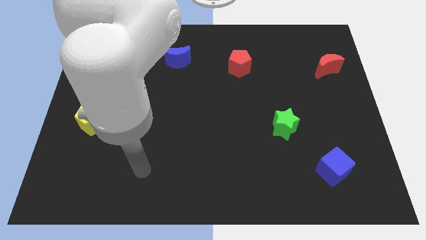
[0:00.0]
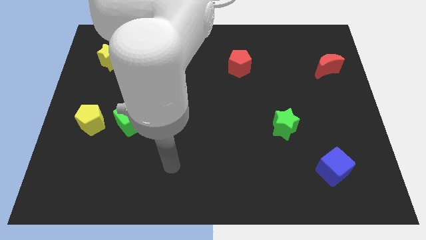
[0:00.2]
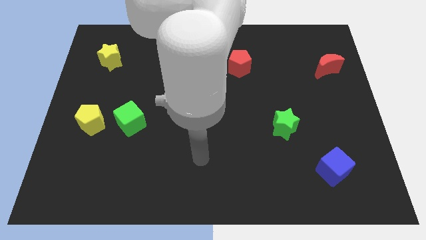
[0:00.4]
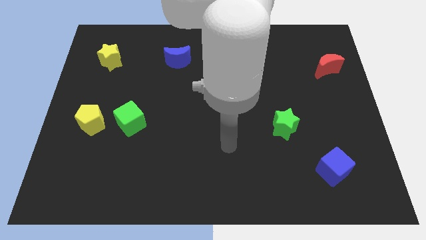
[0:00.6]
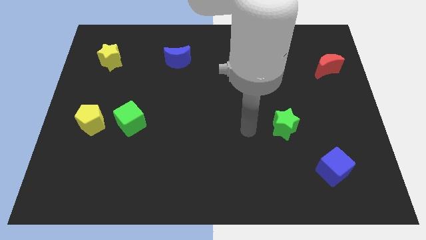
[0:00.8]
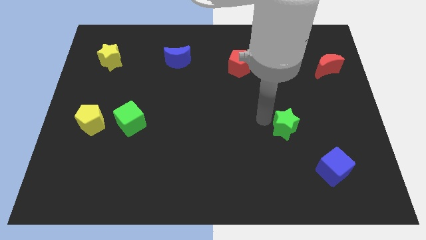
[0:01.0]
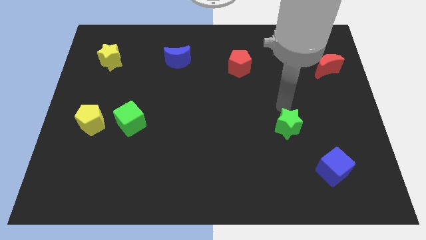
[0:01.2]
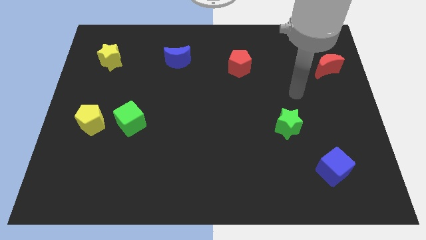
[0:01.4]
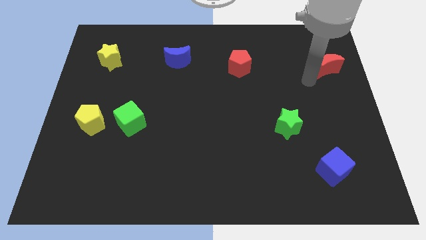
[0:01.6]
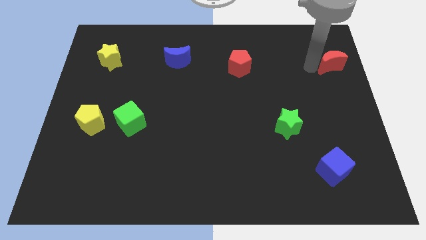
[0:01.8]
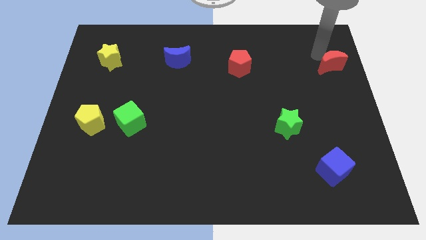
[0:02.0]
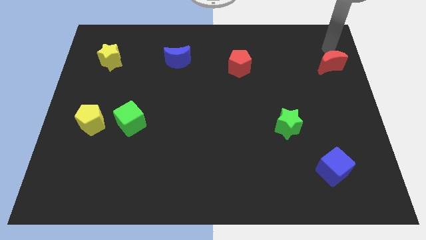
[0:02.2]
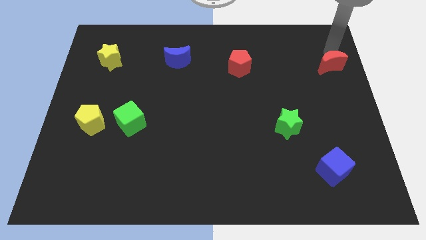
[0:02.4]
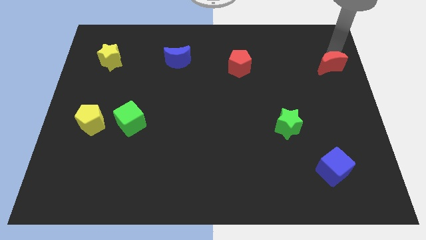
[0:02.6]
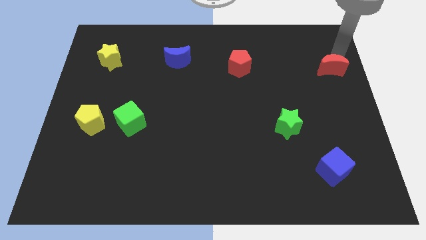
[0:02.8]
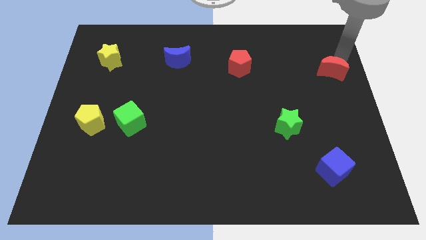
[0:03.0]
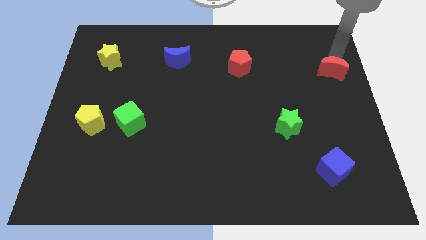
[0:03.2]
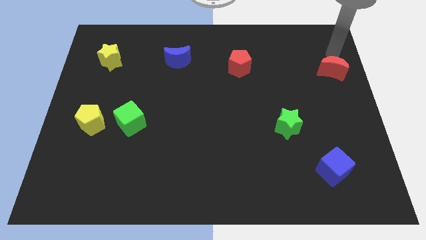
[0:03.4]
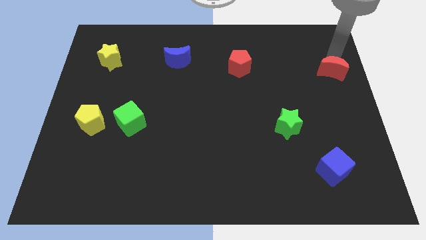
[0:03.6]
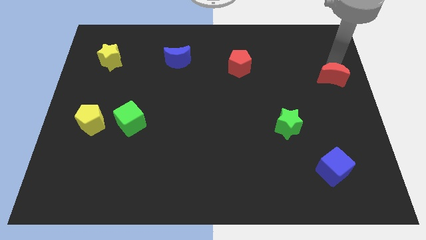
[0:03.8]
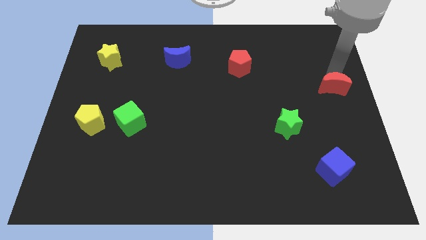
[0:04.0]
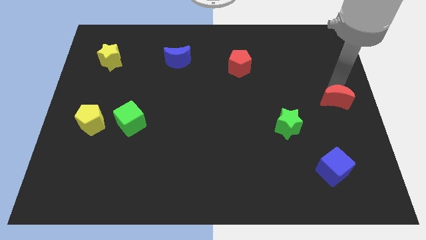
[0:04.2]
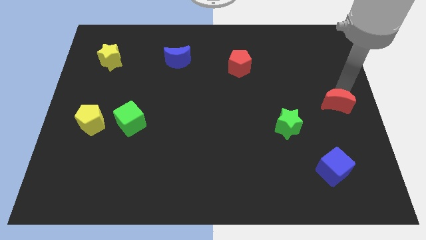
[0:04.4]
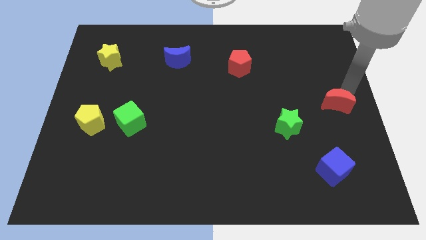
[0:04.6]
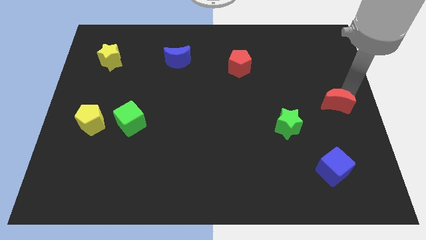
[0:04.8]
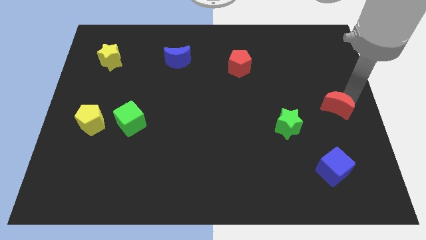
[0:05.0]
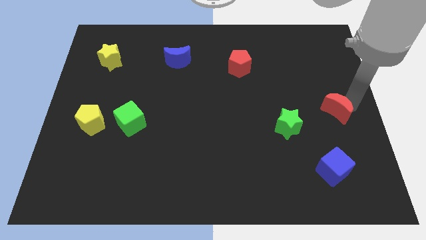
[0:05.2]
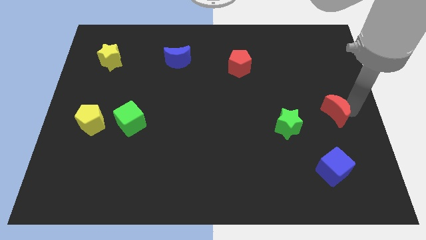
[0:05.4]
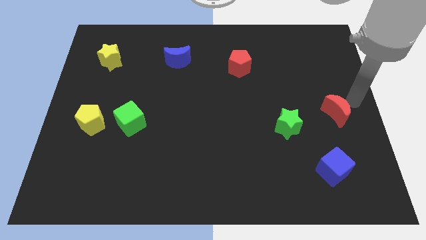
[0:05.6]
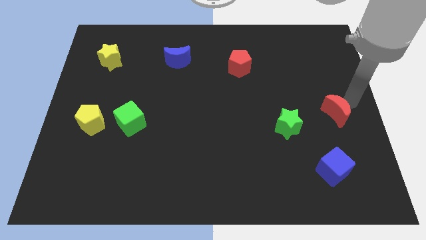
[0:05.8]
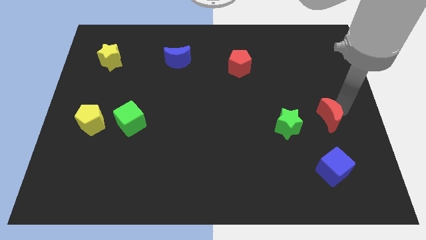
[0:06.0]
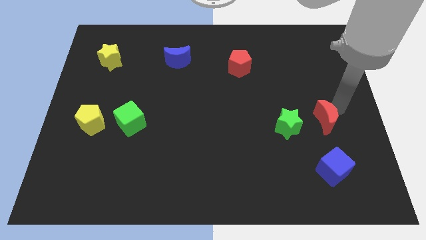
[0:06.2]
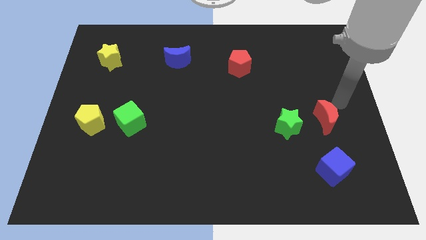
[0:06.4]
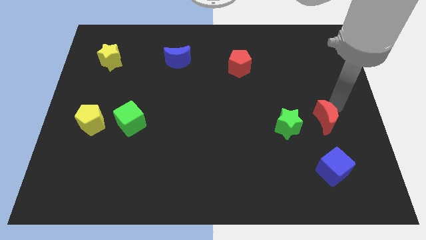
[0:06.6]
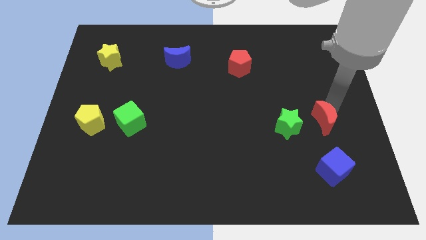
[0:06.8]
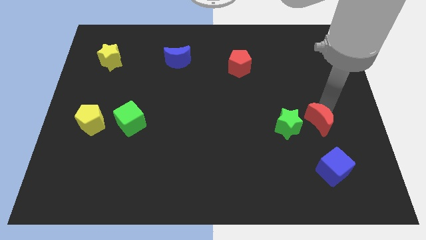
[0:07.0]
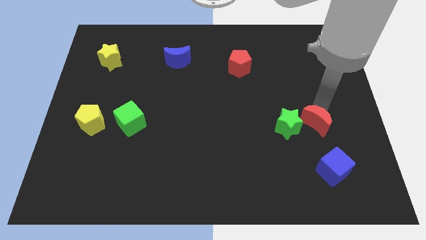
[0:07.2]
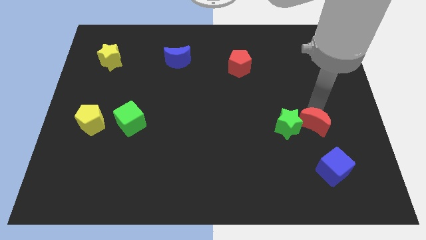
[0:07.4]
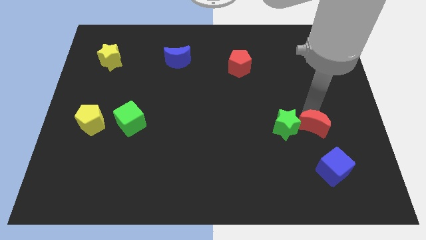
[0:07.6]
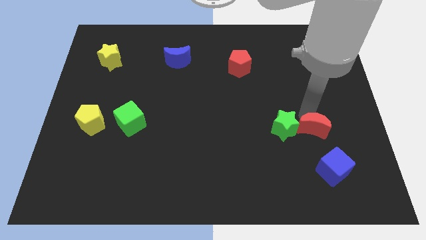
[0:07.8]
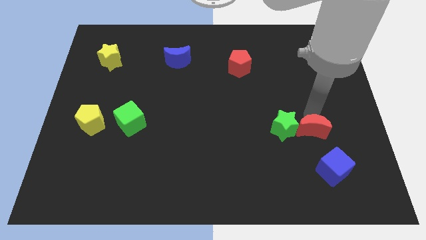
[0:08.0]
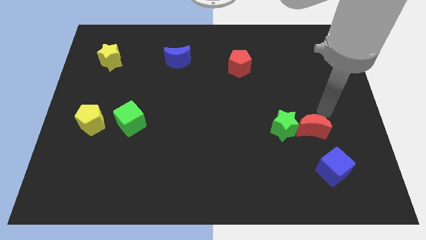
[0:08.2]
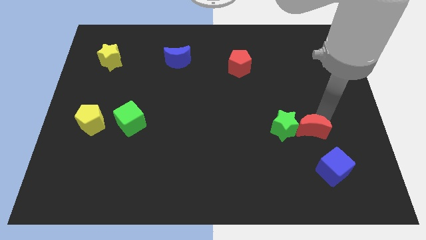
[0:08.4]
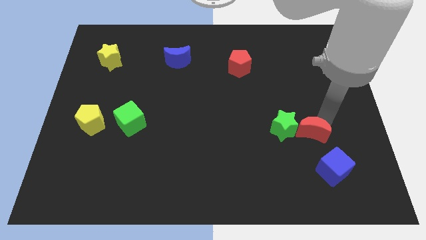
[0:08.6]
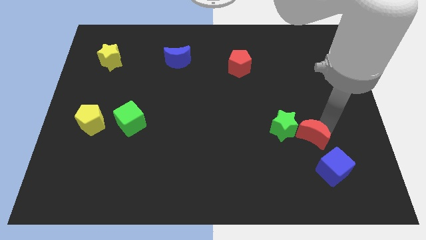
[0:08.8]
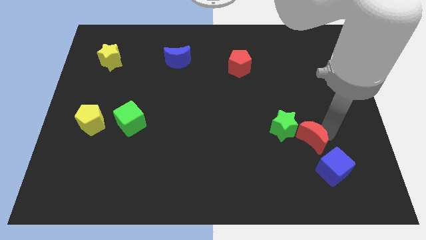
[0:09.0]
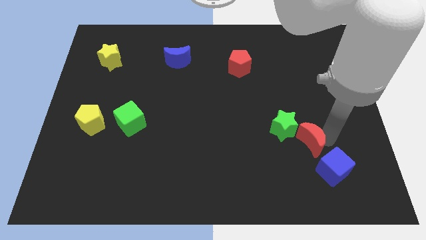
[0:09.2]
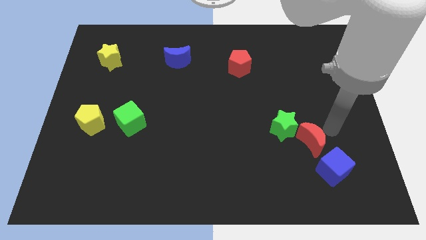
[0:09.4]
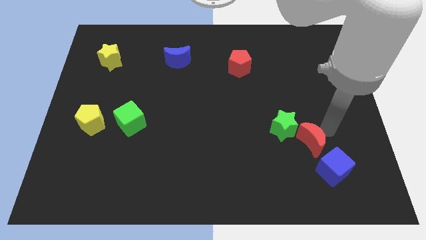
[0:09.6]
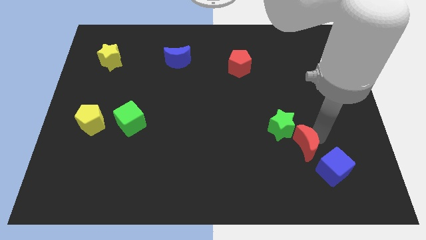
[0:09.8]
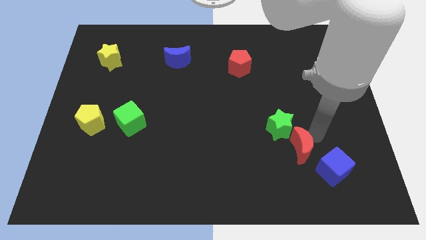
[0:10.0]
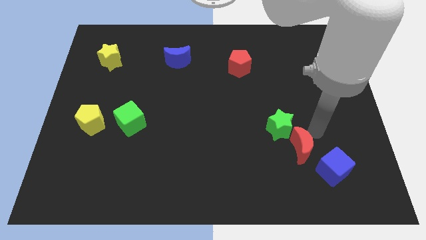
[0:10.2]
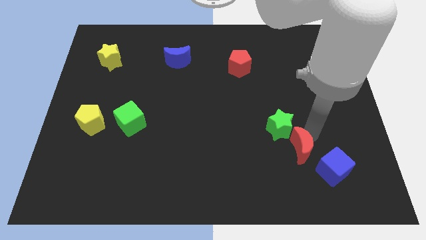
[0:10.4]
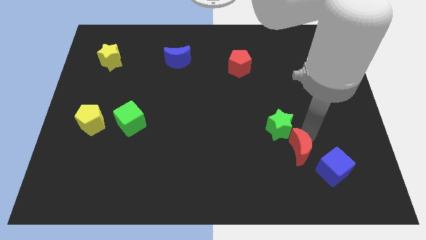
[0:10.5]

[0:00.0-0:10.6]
slide the red moon left of the blue cube

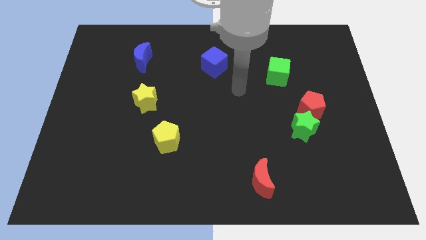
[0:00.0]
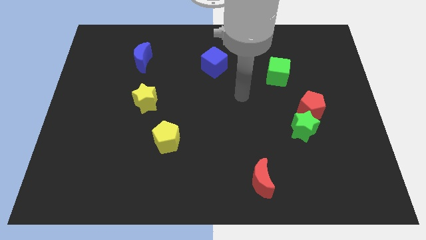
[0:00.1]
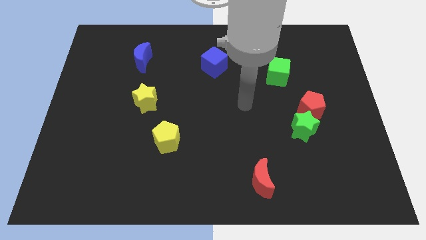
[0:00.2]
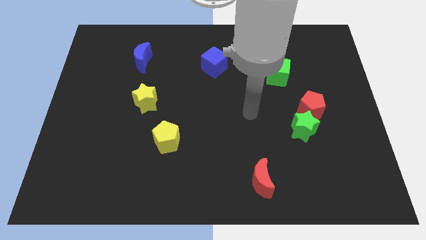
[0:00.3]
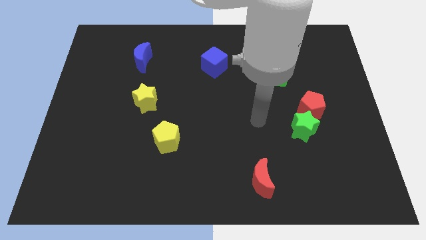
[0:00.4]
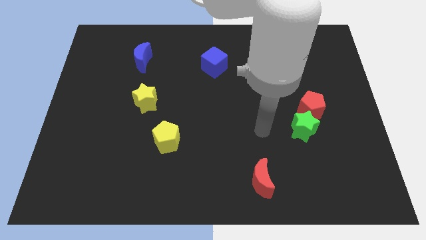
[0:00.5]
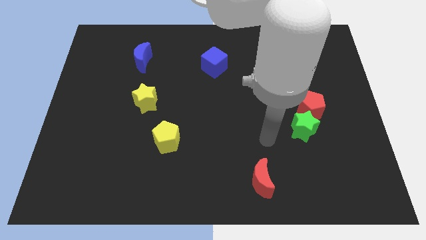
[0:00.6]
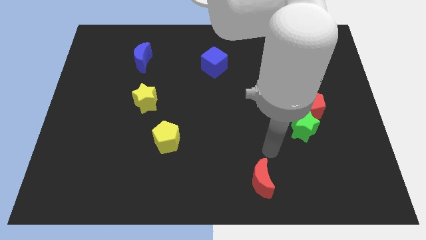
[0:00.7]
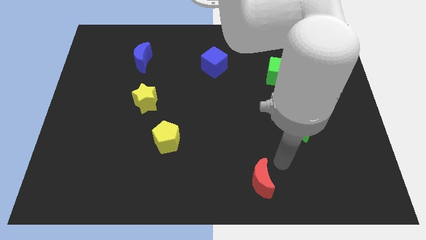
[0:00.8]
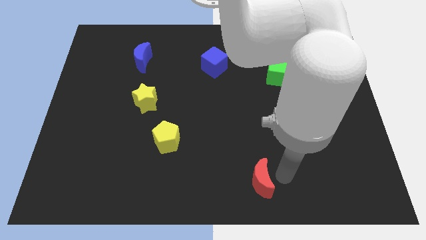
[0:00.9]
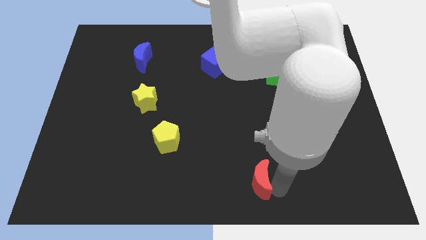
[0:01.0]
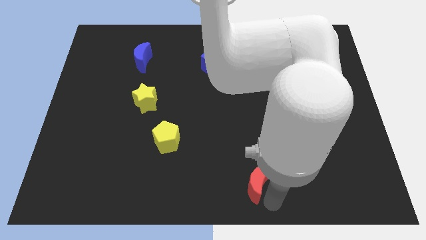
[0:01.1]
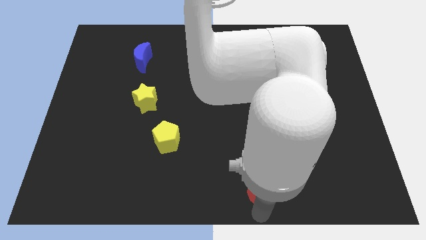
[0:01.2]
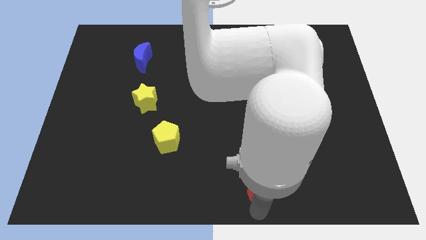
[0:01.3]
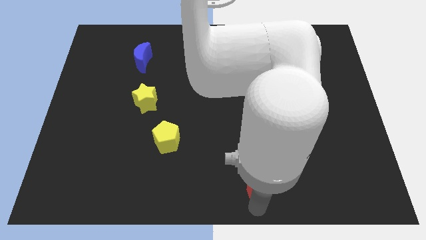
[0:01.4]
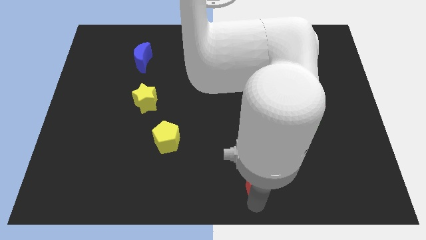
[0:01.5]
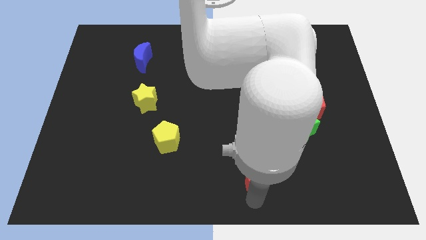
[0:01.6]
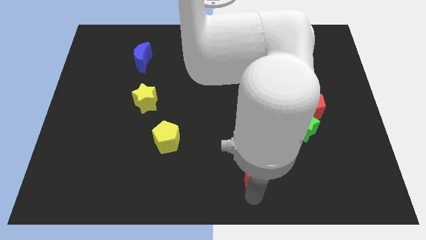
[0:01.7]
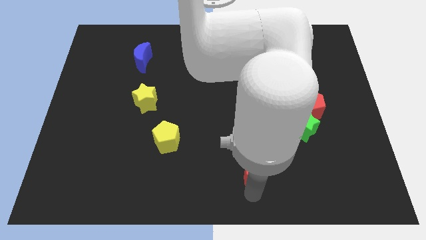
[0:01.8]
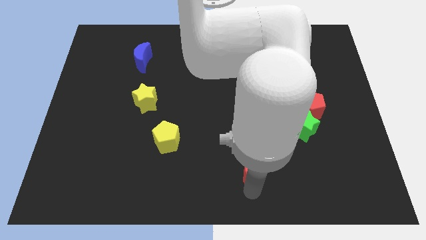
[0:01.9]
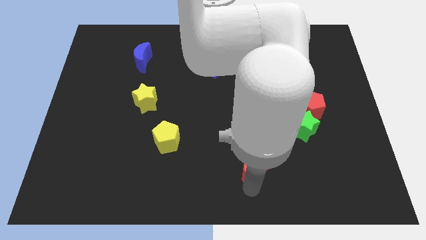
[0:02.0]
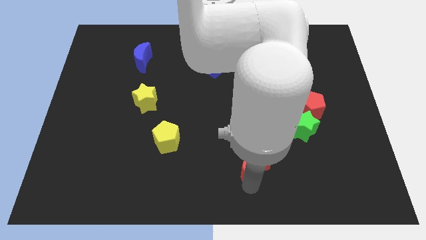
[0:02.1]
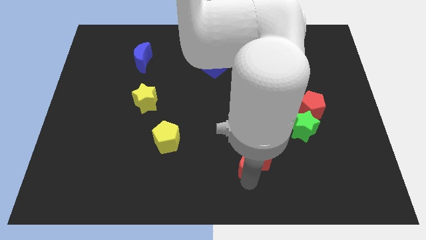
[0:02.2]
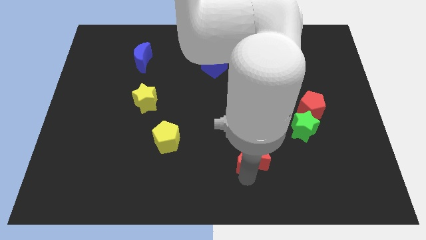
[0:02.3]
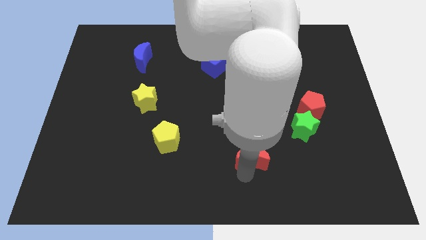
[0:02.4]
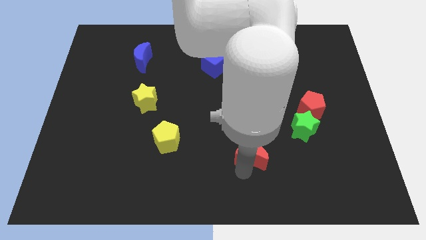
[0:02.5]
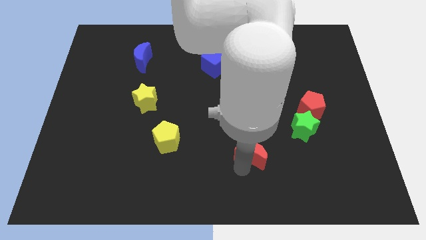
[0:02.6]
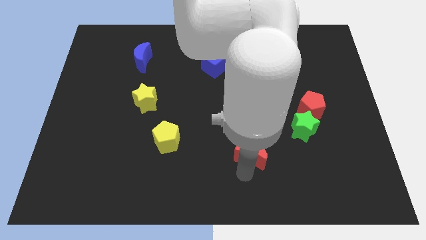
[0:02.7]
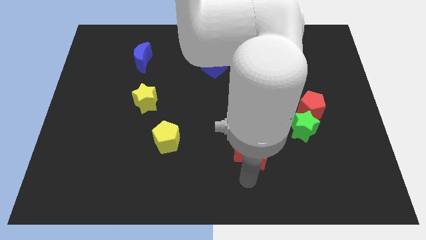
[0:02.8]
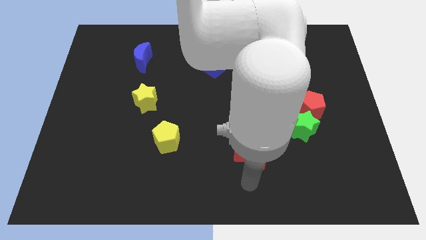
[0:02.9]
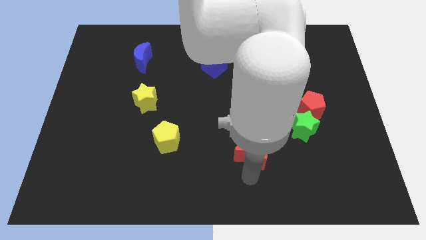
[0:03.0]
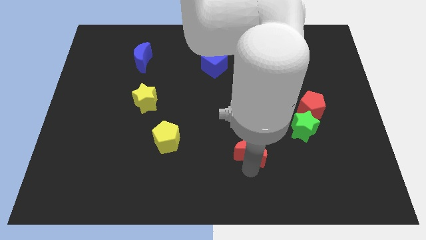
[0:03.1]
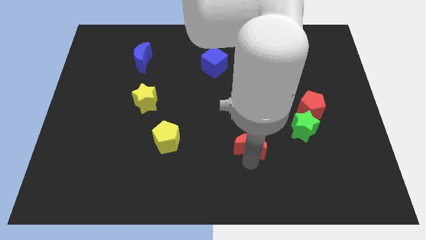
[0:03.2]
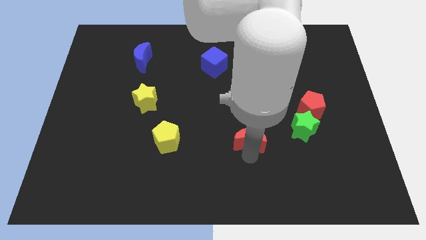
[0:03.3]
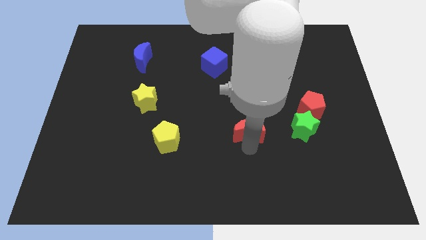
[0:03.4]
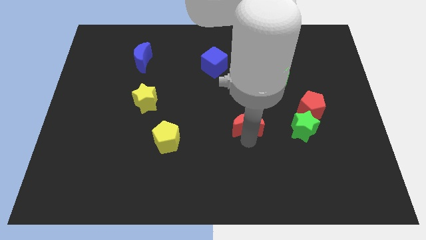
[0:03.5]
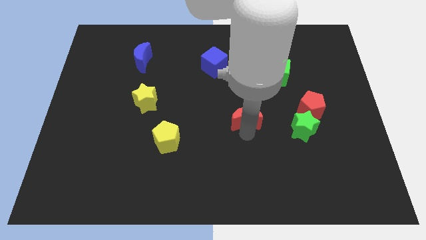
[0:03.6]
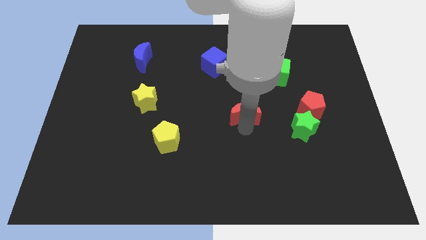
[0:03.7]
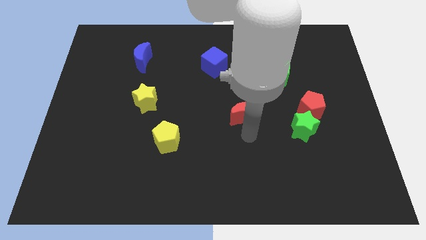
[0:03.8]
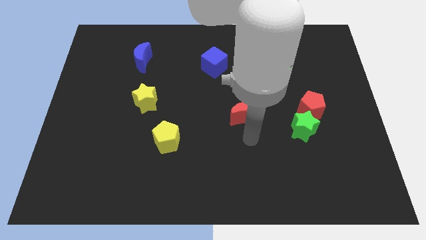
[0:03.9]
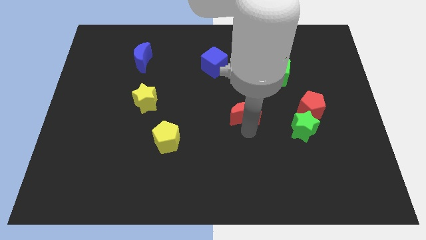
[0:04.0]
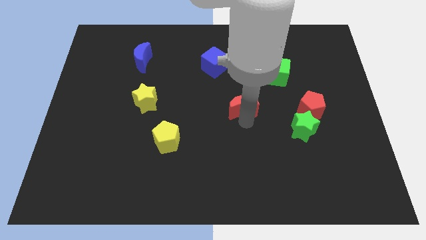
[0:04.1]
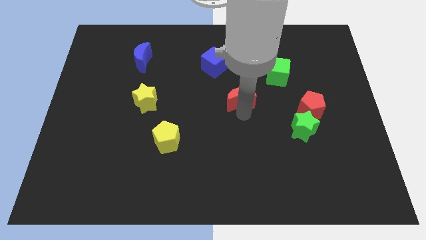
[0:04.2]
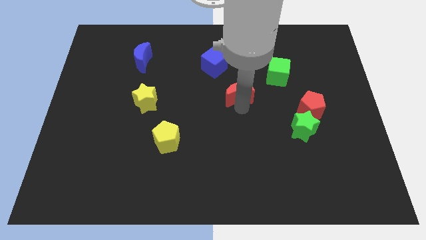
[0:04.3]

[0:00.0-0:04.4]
put the red moon to the bottom right side of the blue cube
